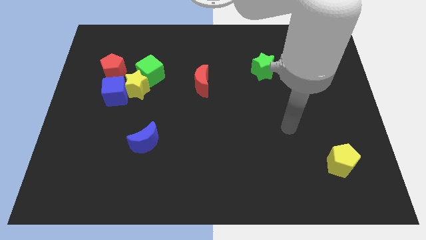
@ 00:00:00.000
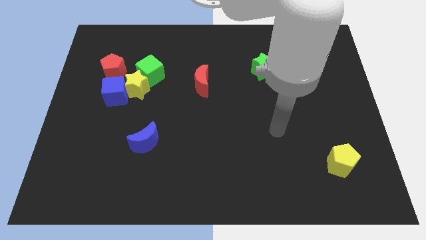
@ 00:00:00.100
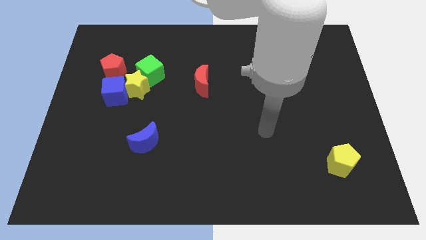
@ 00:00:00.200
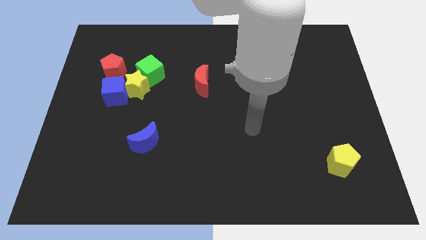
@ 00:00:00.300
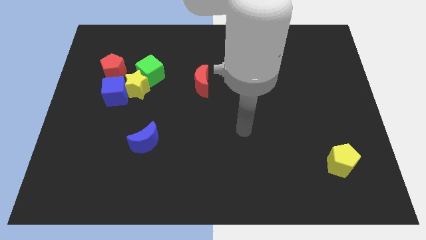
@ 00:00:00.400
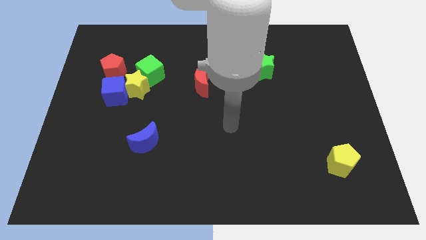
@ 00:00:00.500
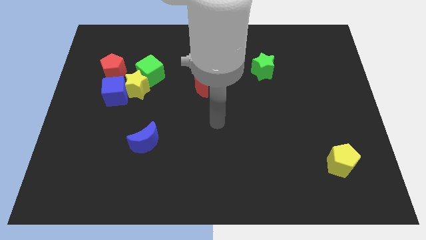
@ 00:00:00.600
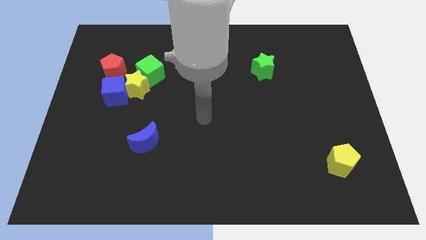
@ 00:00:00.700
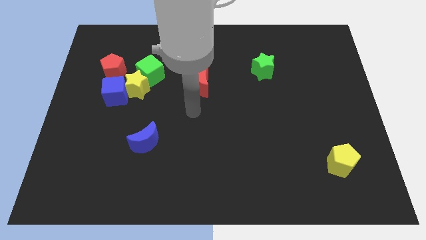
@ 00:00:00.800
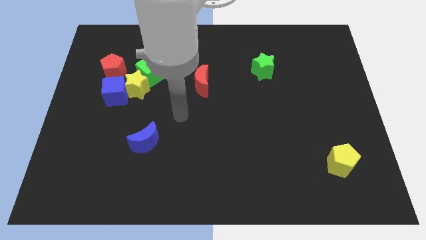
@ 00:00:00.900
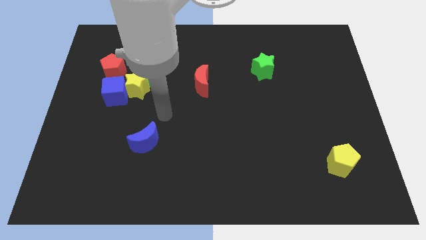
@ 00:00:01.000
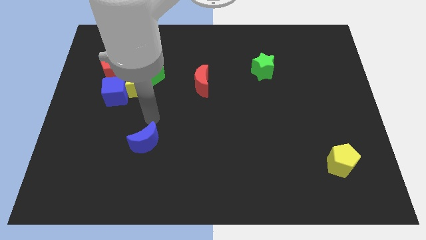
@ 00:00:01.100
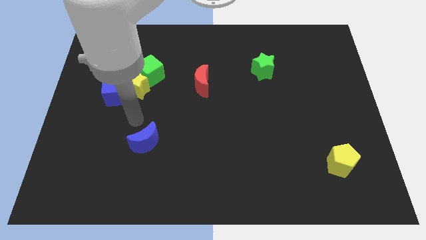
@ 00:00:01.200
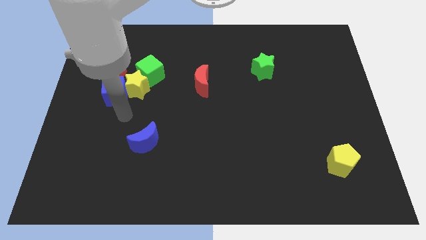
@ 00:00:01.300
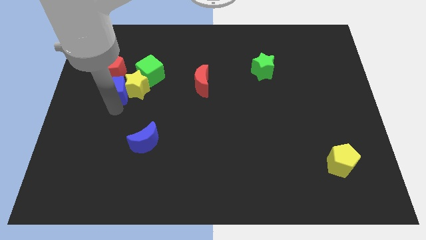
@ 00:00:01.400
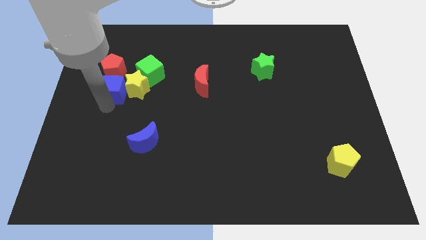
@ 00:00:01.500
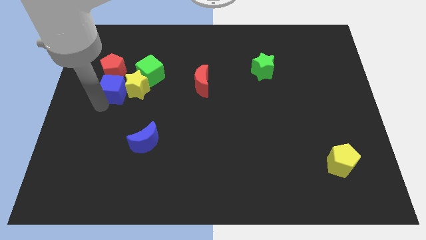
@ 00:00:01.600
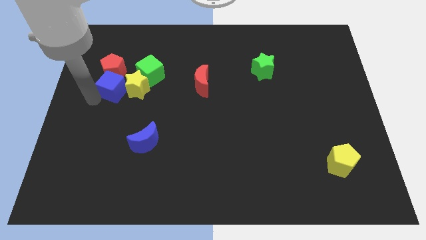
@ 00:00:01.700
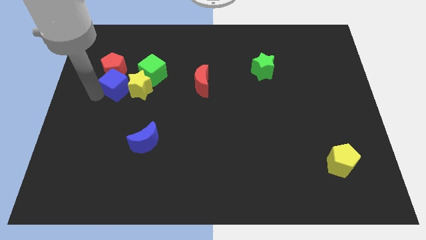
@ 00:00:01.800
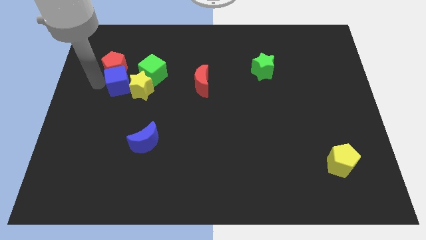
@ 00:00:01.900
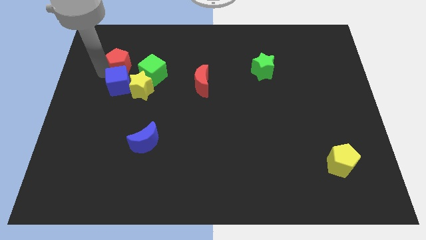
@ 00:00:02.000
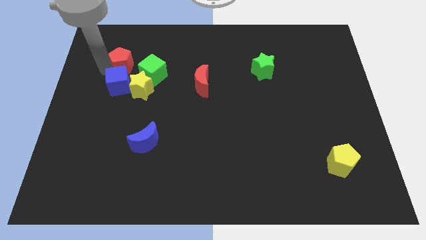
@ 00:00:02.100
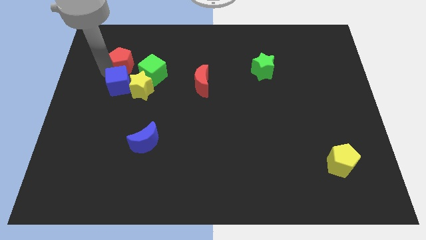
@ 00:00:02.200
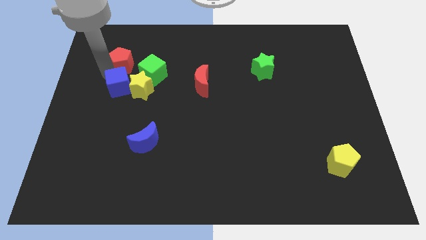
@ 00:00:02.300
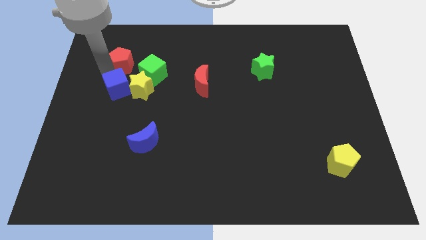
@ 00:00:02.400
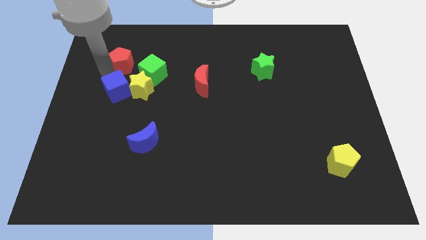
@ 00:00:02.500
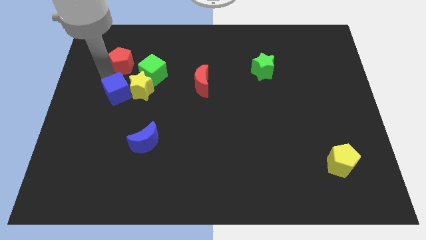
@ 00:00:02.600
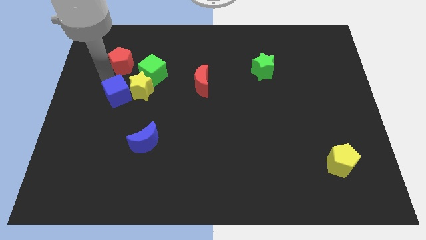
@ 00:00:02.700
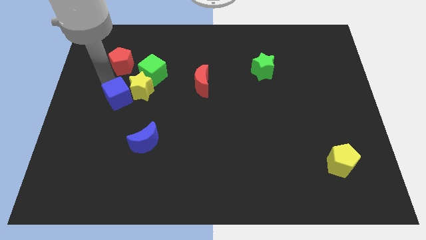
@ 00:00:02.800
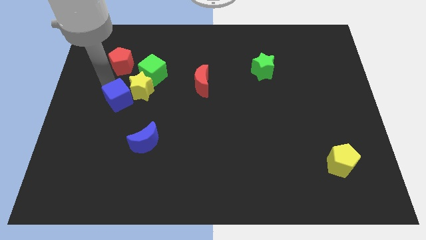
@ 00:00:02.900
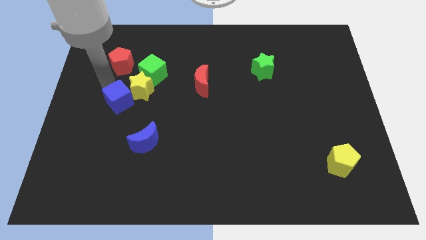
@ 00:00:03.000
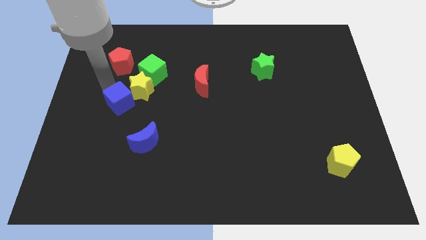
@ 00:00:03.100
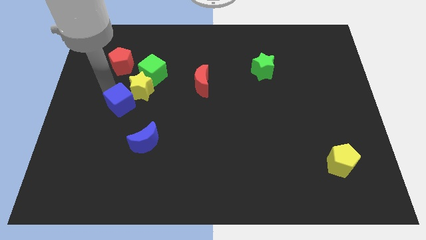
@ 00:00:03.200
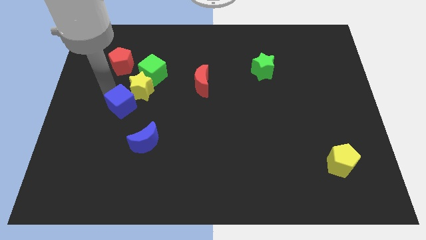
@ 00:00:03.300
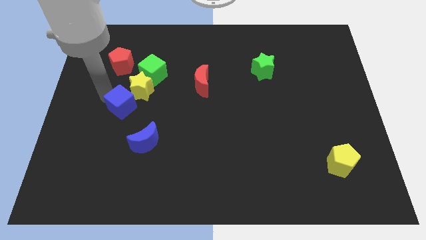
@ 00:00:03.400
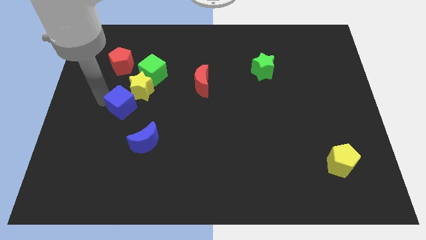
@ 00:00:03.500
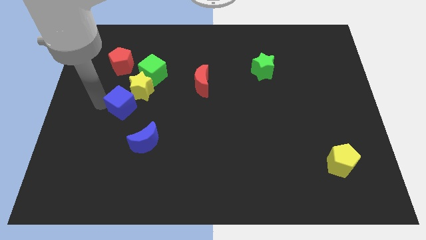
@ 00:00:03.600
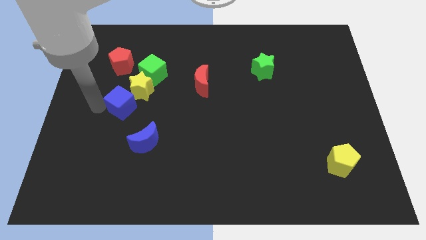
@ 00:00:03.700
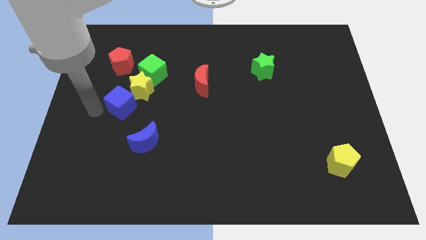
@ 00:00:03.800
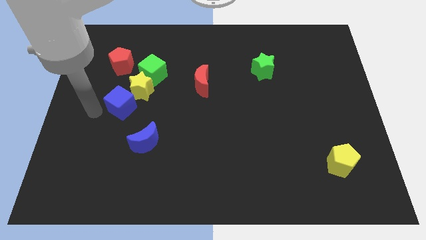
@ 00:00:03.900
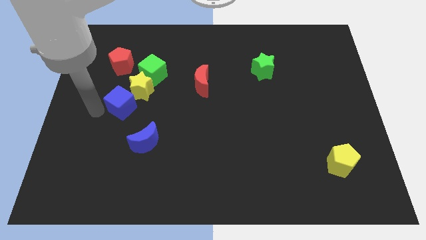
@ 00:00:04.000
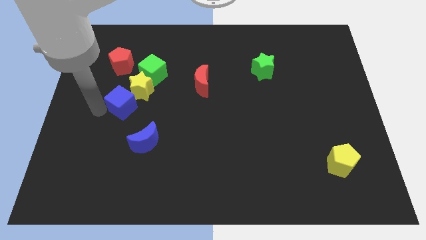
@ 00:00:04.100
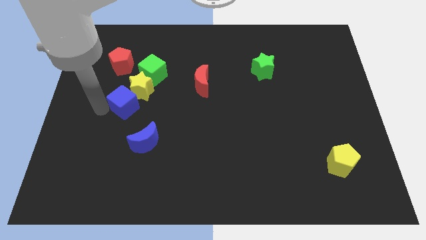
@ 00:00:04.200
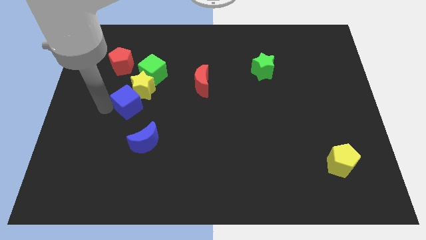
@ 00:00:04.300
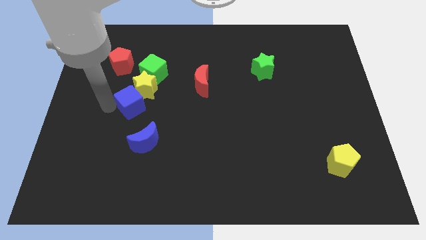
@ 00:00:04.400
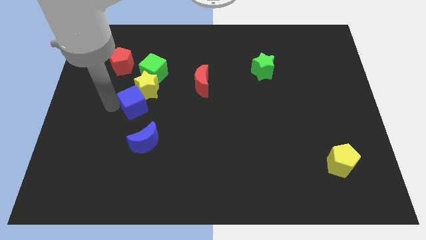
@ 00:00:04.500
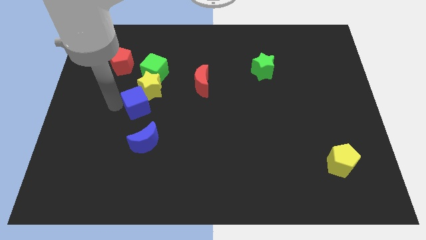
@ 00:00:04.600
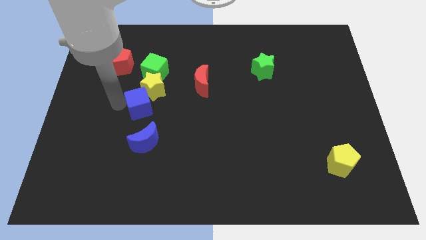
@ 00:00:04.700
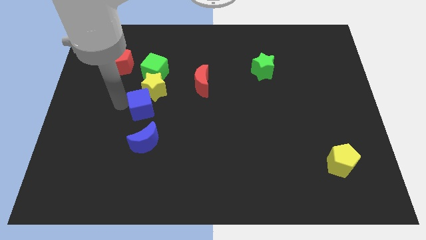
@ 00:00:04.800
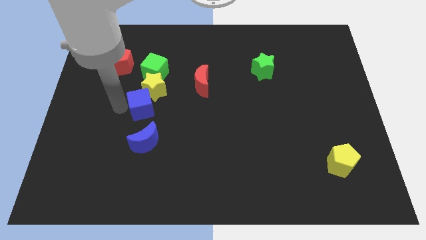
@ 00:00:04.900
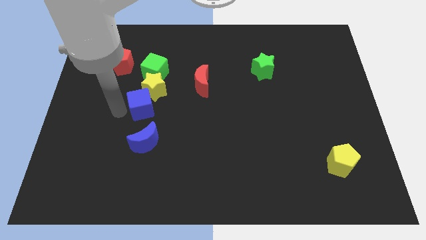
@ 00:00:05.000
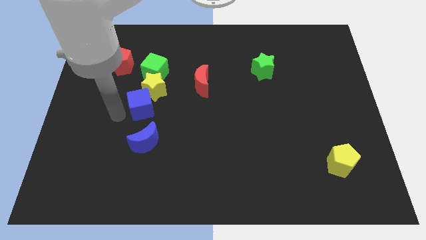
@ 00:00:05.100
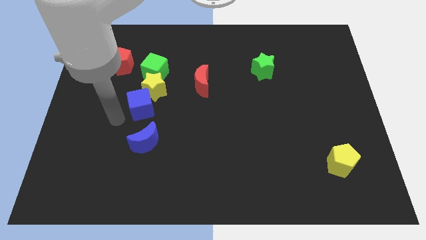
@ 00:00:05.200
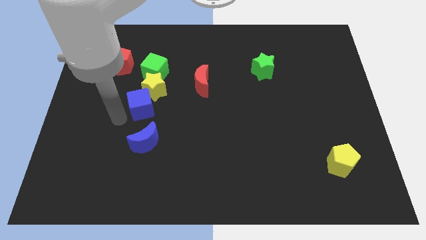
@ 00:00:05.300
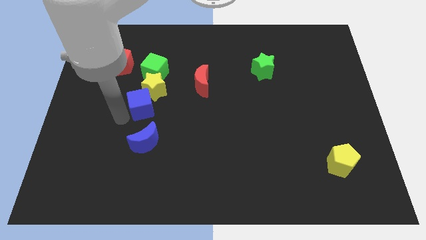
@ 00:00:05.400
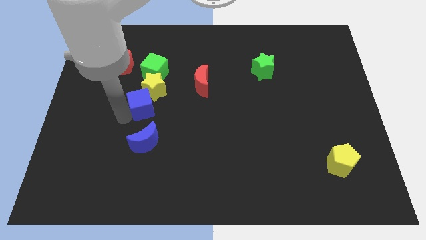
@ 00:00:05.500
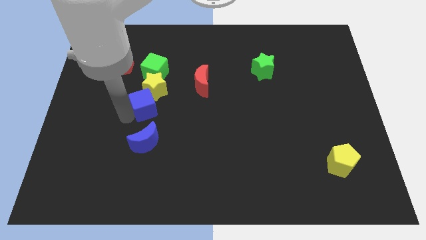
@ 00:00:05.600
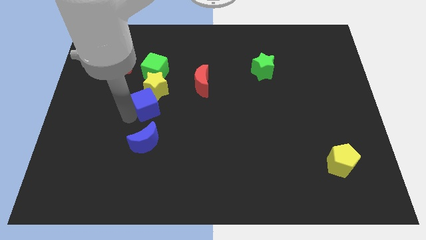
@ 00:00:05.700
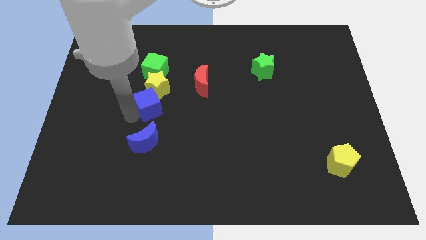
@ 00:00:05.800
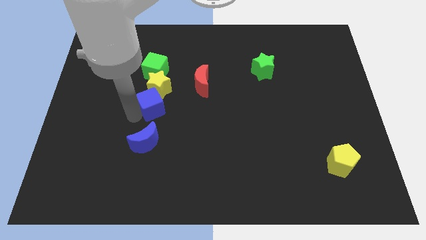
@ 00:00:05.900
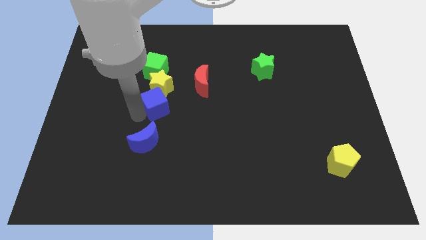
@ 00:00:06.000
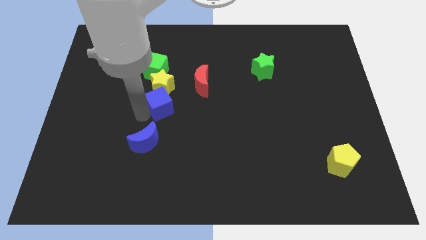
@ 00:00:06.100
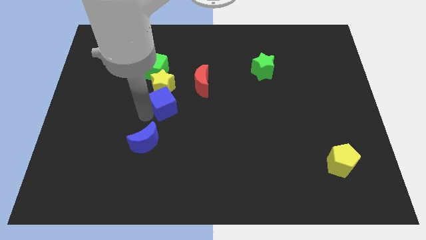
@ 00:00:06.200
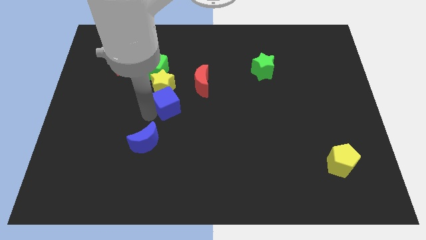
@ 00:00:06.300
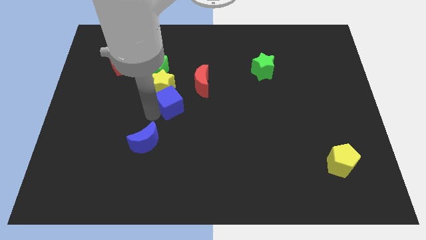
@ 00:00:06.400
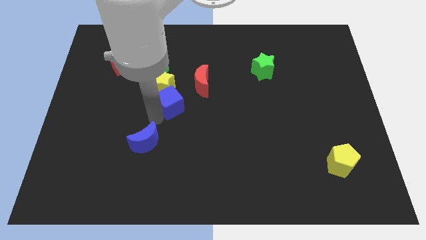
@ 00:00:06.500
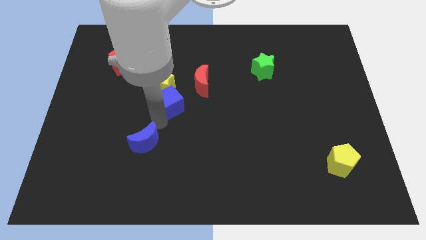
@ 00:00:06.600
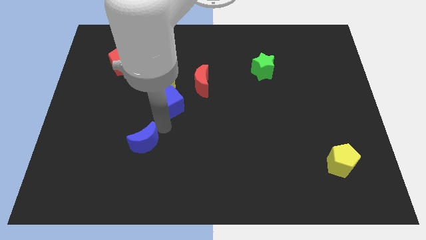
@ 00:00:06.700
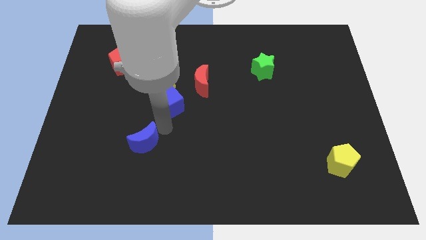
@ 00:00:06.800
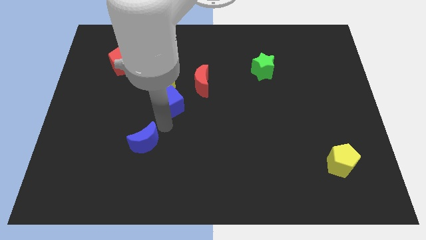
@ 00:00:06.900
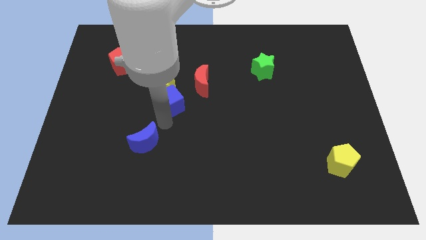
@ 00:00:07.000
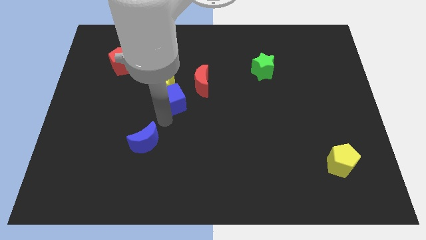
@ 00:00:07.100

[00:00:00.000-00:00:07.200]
push the blue cube to the bottom right side of the green cube
